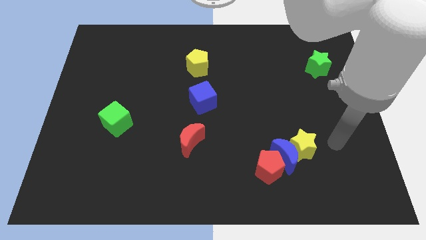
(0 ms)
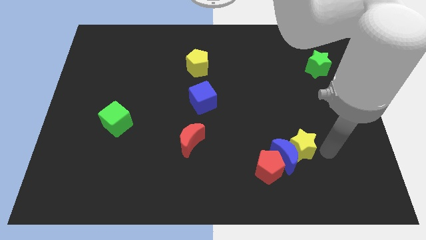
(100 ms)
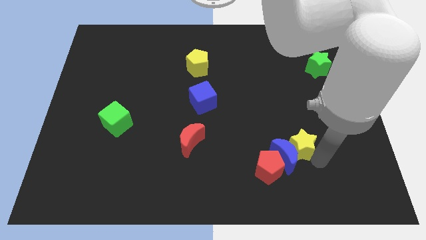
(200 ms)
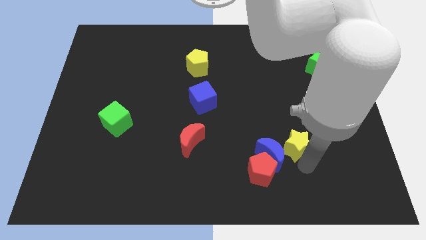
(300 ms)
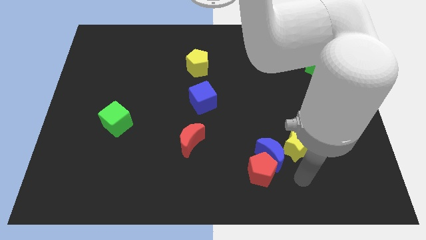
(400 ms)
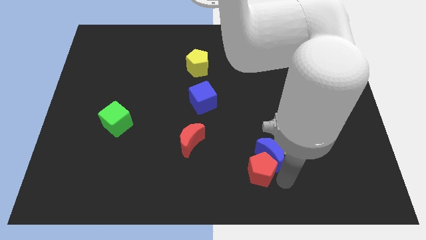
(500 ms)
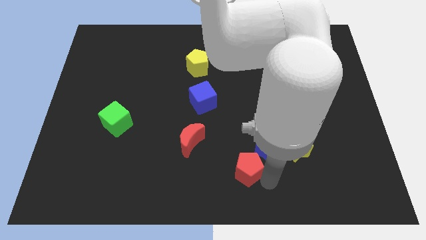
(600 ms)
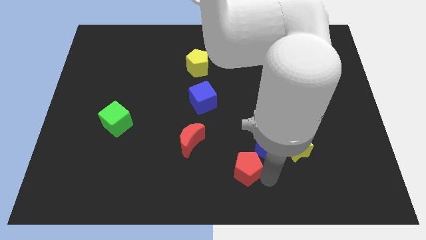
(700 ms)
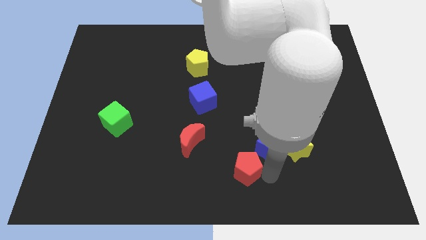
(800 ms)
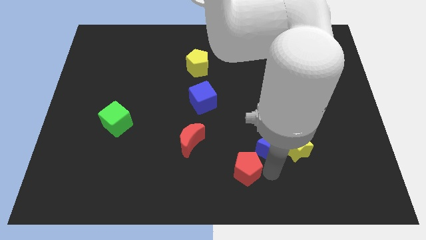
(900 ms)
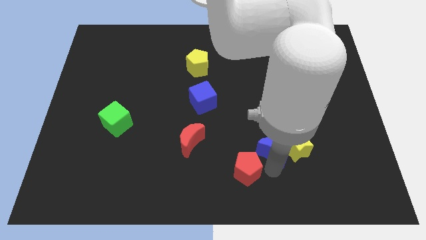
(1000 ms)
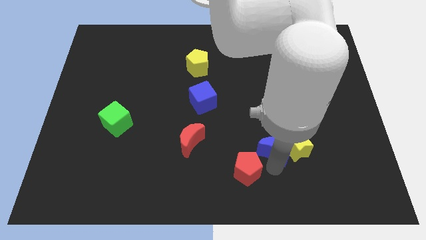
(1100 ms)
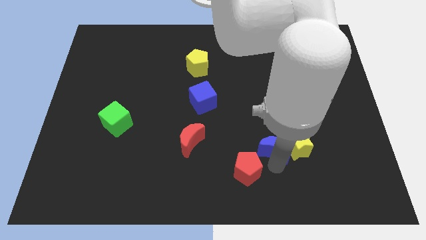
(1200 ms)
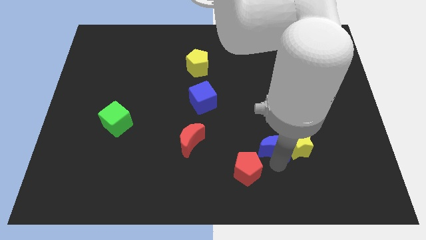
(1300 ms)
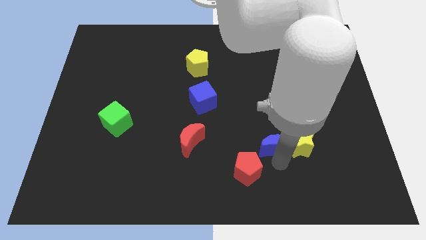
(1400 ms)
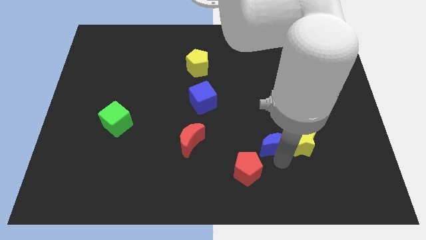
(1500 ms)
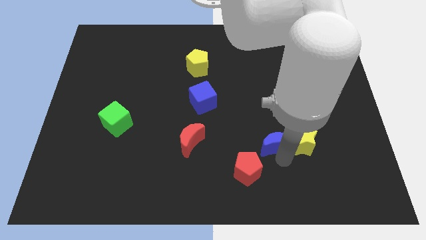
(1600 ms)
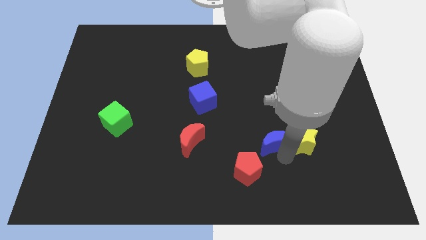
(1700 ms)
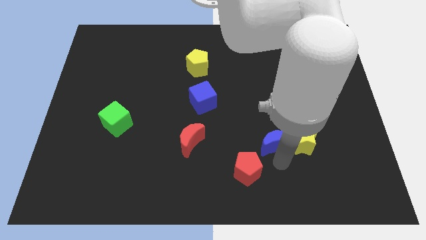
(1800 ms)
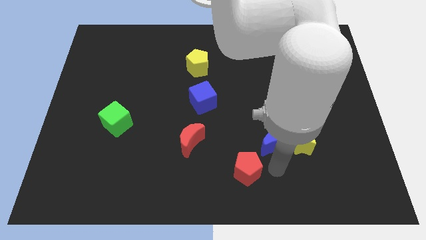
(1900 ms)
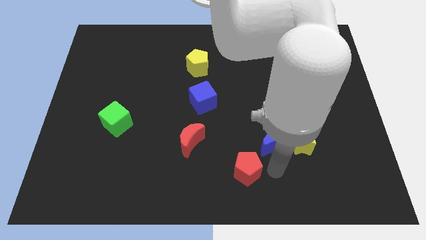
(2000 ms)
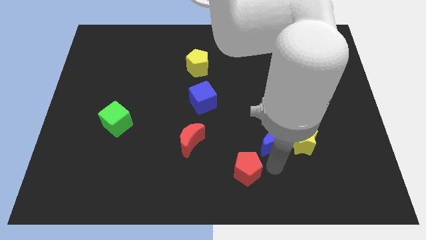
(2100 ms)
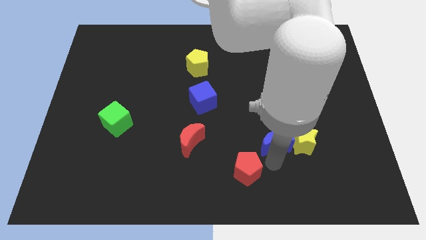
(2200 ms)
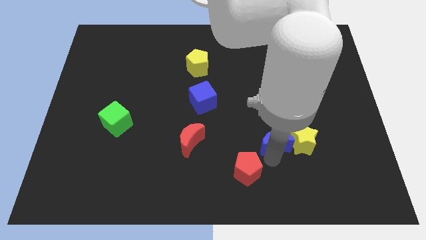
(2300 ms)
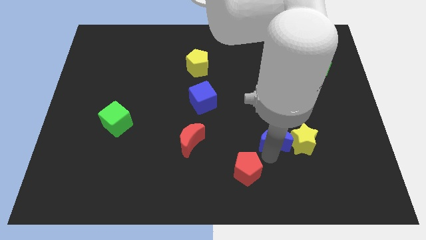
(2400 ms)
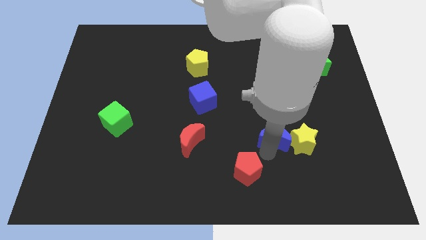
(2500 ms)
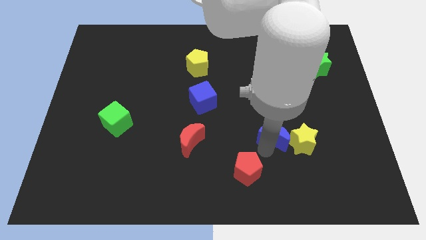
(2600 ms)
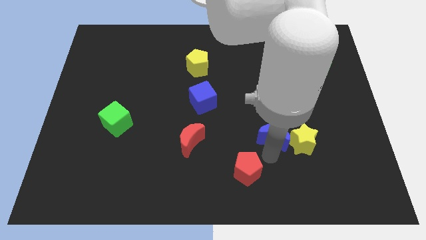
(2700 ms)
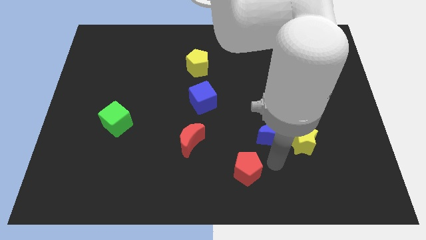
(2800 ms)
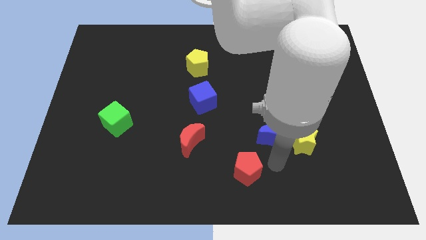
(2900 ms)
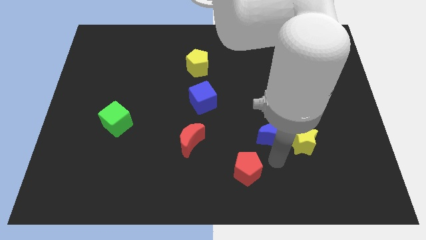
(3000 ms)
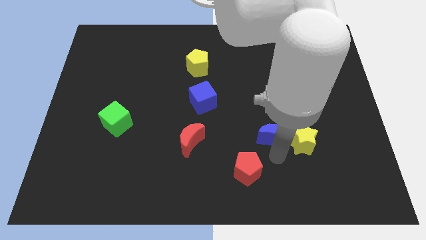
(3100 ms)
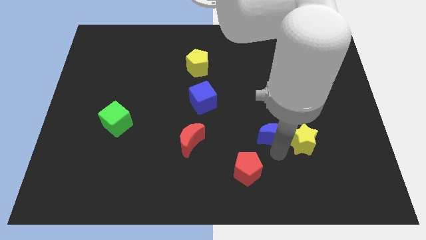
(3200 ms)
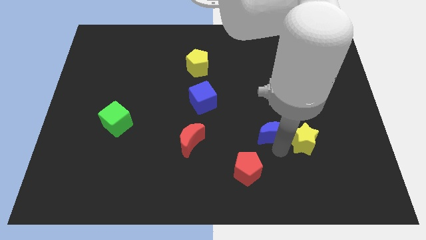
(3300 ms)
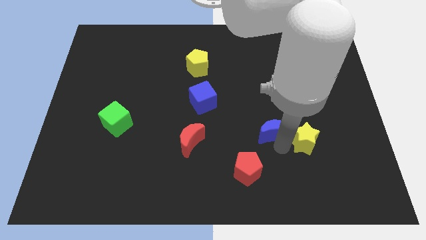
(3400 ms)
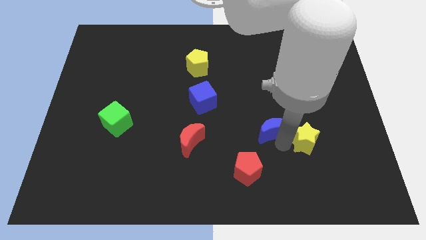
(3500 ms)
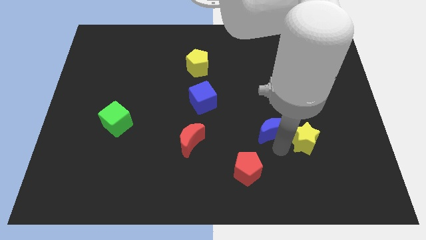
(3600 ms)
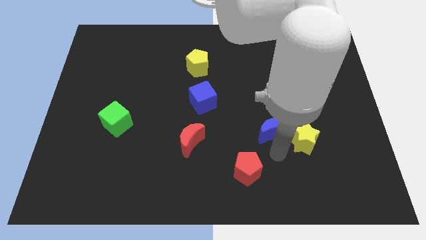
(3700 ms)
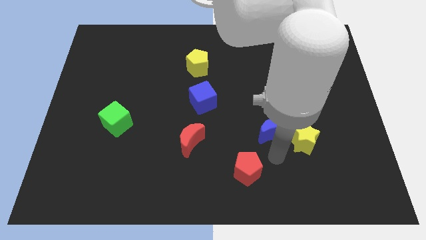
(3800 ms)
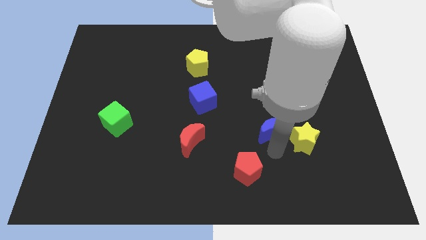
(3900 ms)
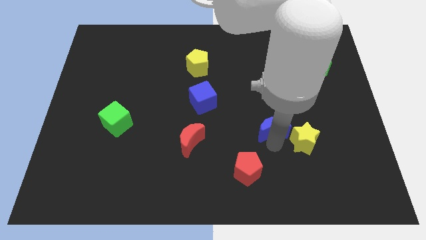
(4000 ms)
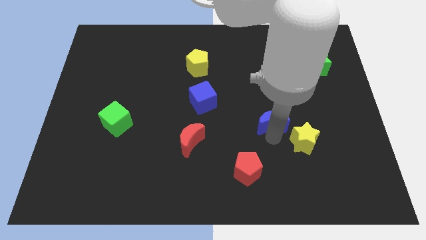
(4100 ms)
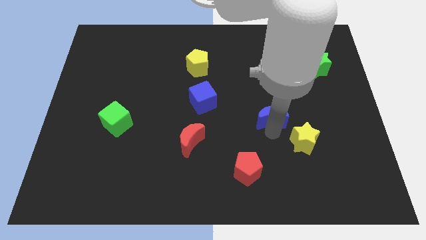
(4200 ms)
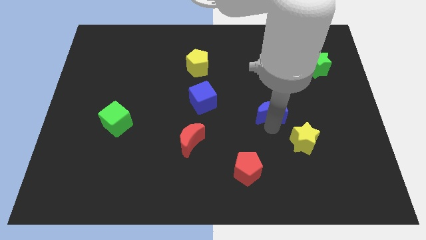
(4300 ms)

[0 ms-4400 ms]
pull the blue moon apart from the yellow star and red pentagon

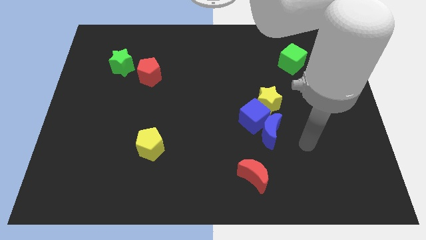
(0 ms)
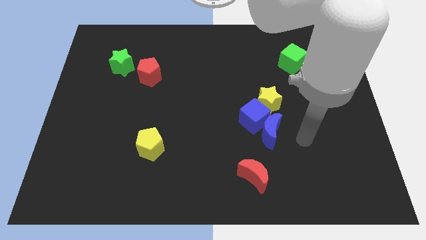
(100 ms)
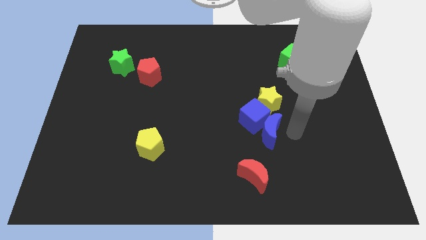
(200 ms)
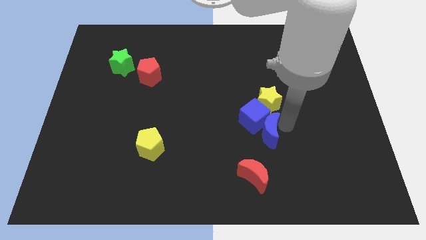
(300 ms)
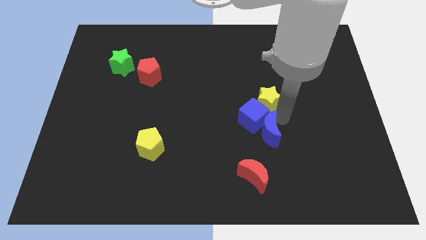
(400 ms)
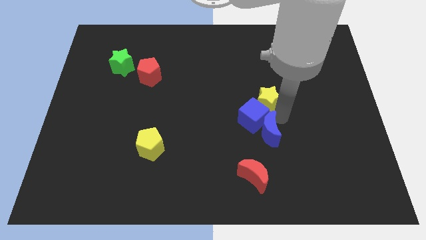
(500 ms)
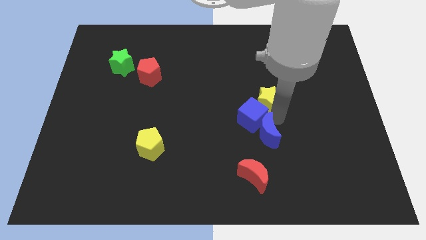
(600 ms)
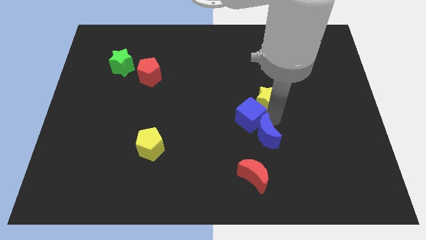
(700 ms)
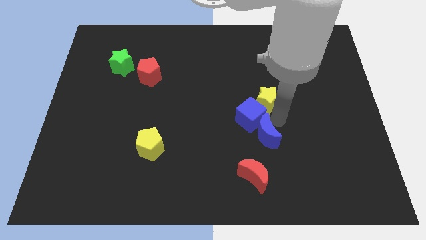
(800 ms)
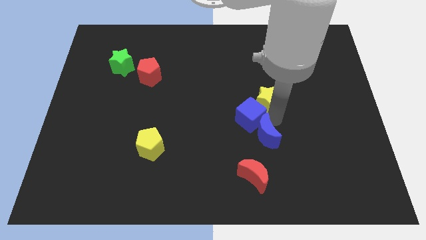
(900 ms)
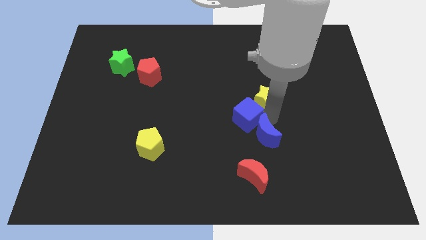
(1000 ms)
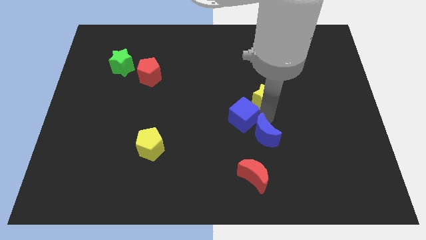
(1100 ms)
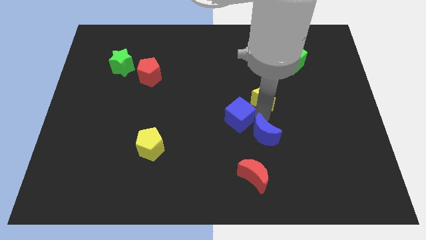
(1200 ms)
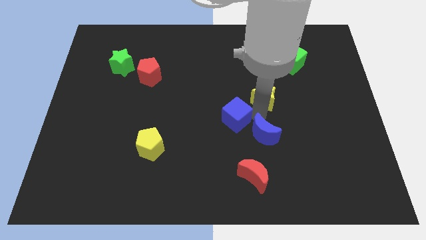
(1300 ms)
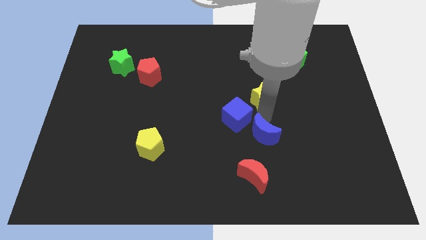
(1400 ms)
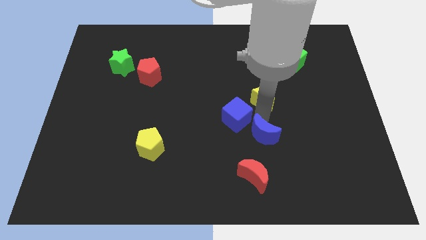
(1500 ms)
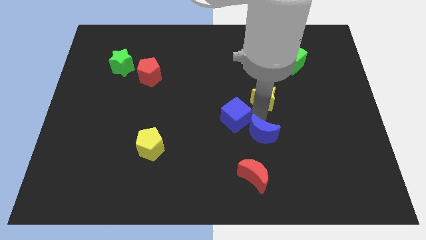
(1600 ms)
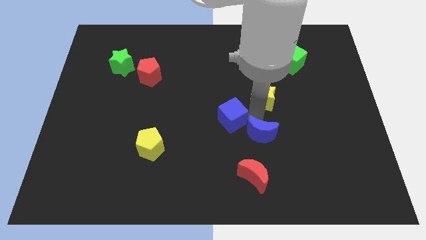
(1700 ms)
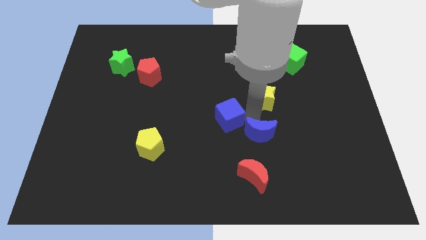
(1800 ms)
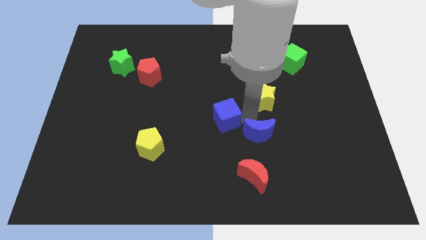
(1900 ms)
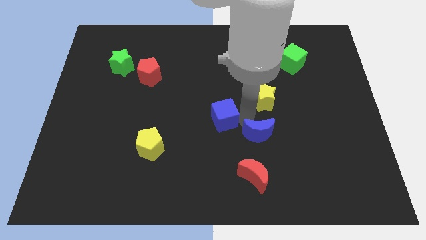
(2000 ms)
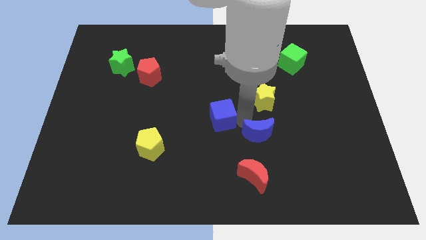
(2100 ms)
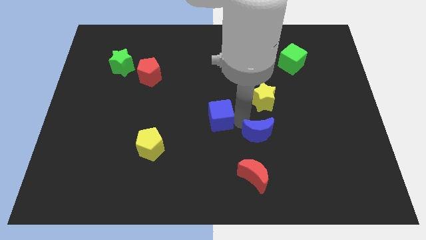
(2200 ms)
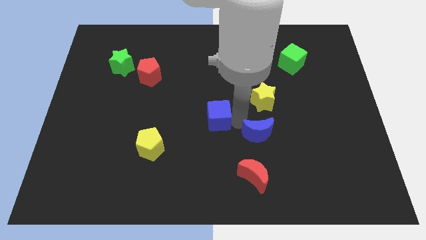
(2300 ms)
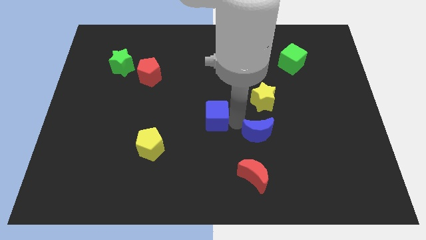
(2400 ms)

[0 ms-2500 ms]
move the blue cube away from the blue moon and yellow star

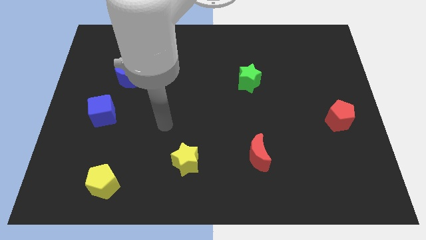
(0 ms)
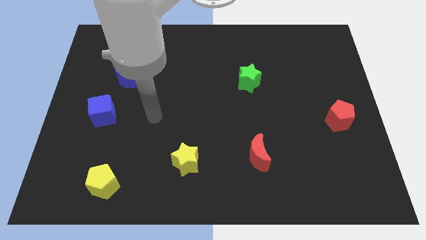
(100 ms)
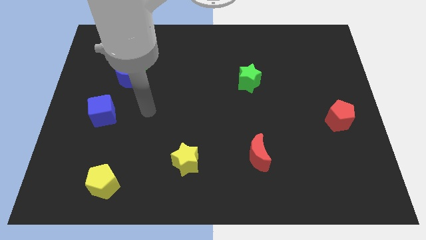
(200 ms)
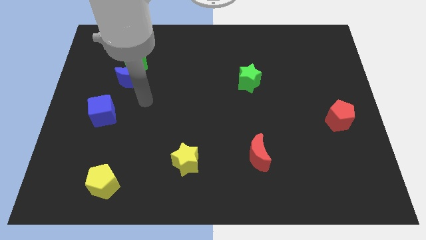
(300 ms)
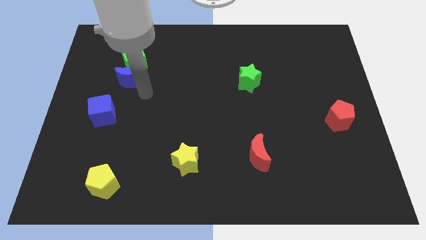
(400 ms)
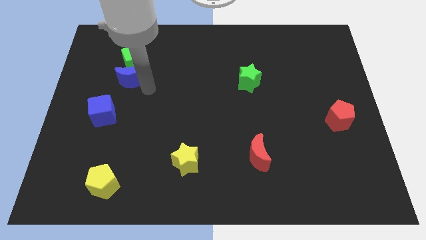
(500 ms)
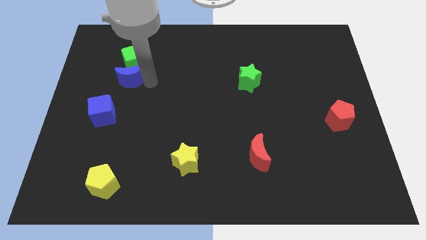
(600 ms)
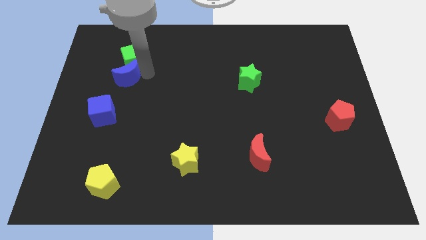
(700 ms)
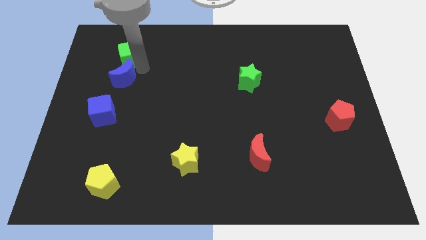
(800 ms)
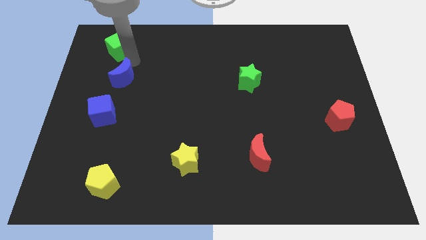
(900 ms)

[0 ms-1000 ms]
pull the blue moon apart from the green cube

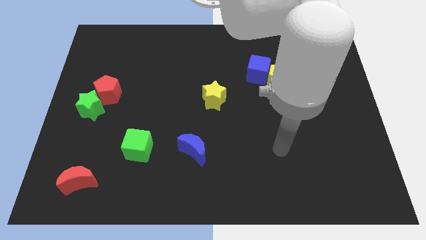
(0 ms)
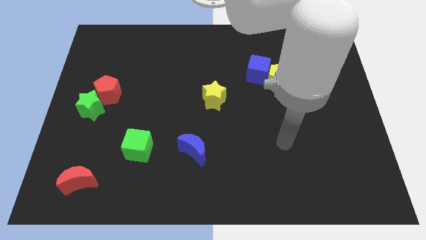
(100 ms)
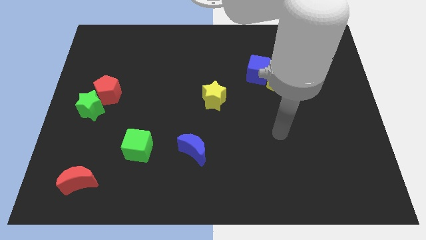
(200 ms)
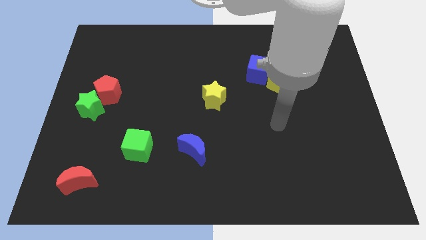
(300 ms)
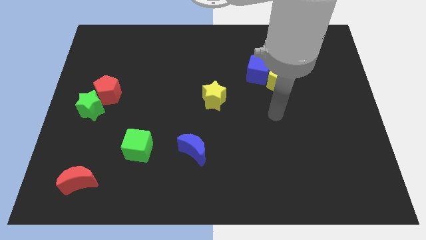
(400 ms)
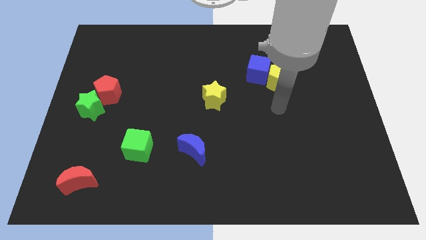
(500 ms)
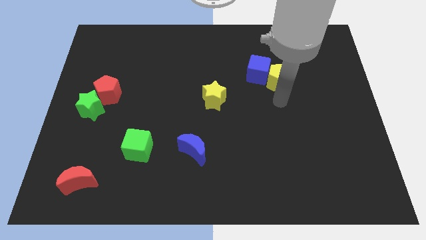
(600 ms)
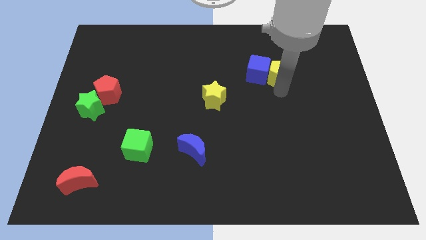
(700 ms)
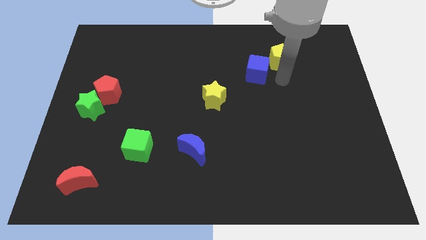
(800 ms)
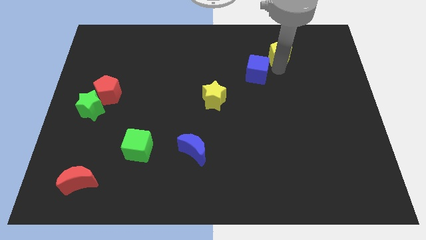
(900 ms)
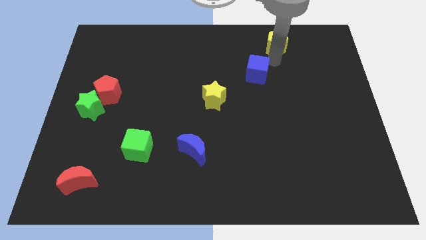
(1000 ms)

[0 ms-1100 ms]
move the blue cube away from the yellow pentagon

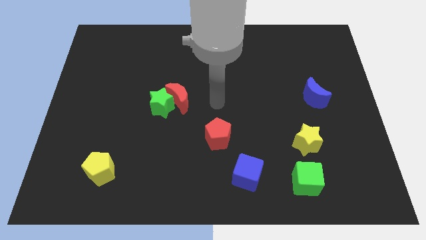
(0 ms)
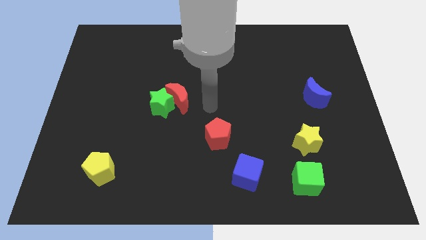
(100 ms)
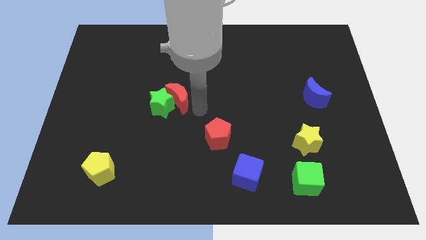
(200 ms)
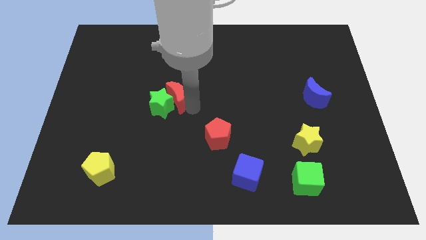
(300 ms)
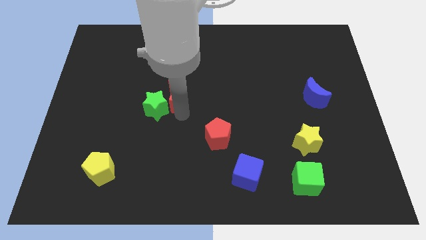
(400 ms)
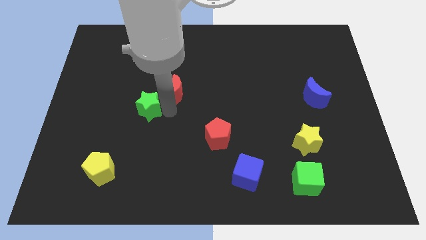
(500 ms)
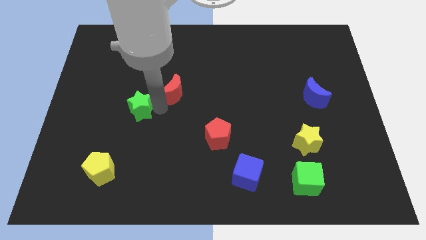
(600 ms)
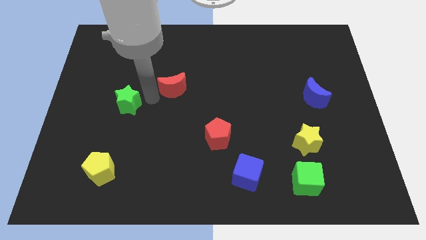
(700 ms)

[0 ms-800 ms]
separate the red moon from the green star
